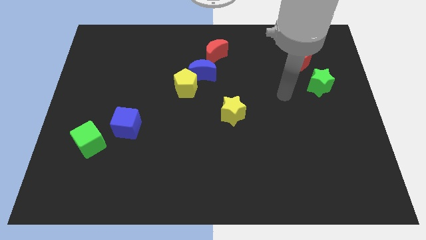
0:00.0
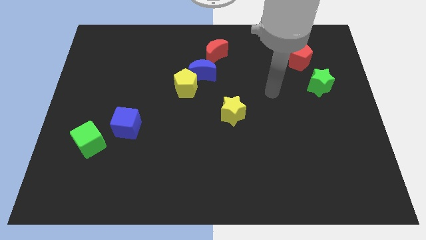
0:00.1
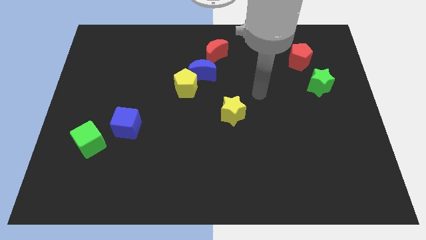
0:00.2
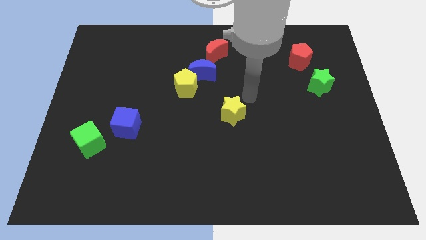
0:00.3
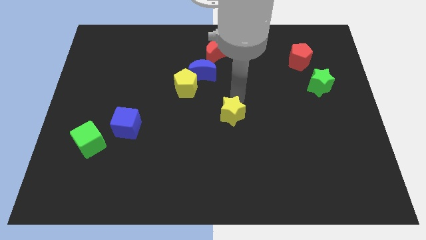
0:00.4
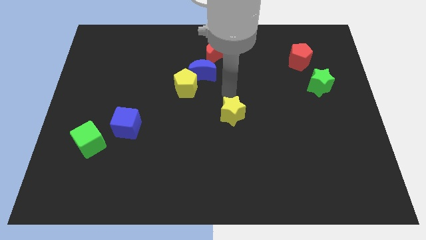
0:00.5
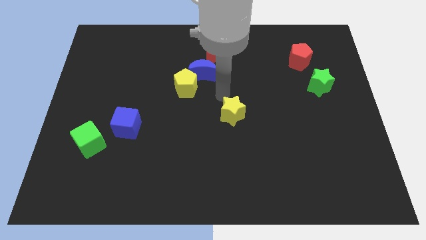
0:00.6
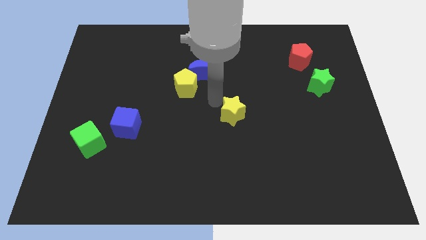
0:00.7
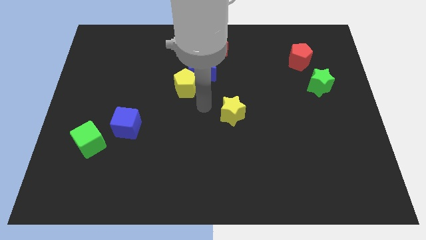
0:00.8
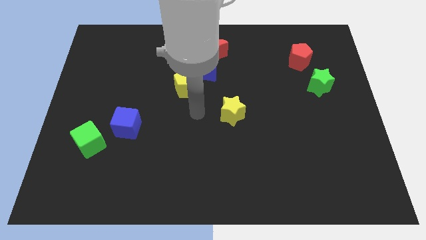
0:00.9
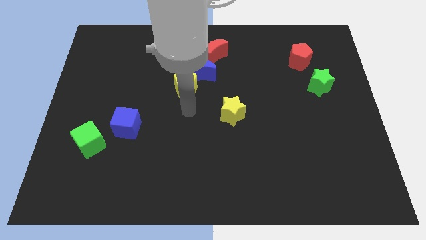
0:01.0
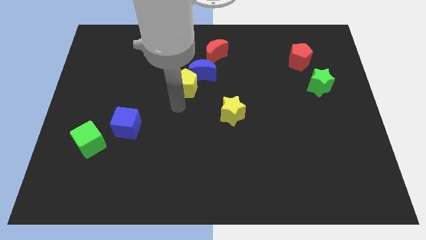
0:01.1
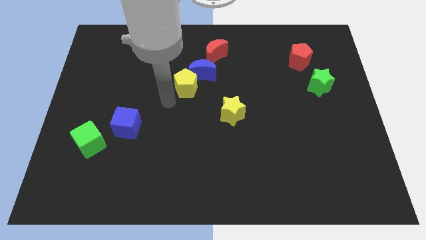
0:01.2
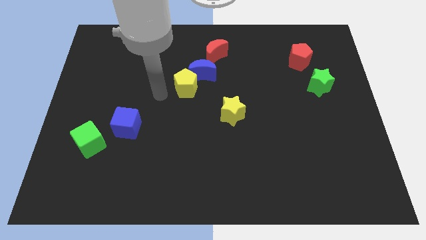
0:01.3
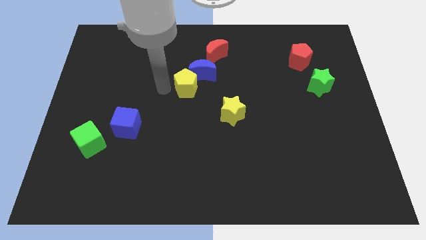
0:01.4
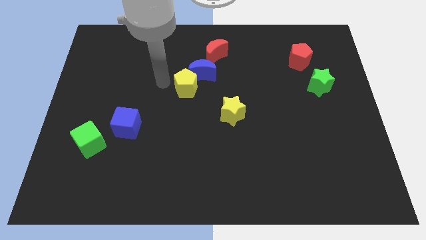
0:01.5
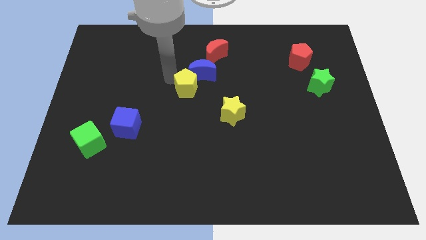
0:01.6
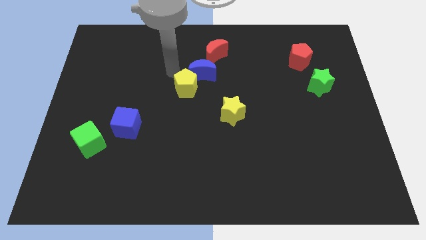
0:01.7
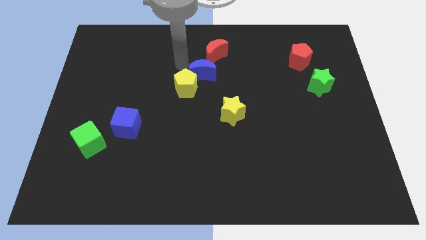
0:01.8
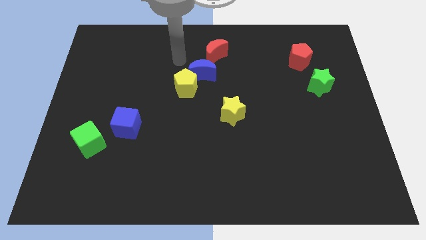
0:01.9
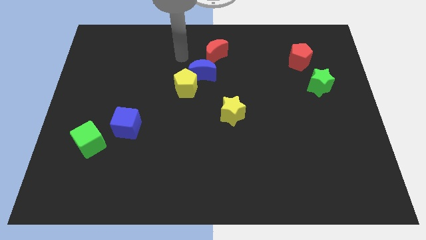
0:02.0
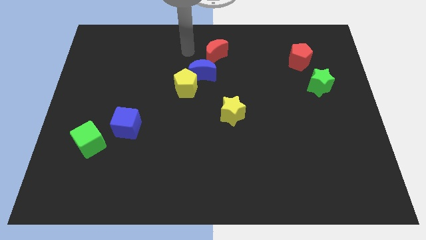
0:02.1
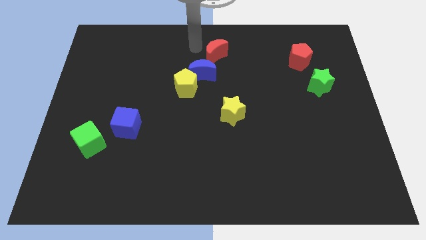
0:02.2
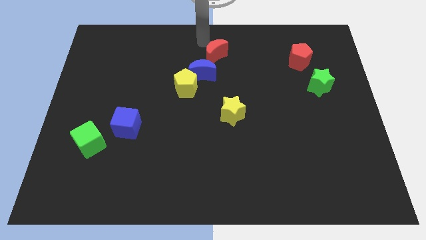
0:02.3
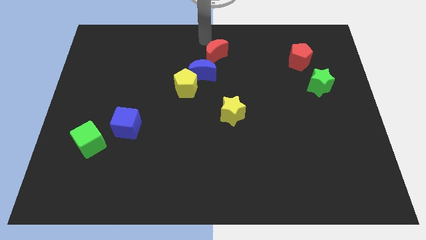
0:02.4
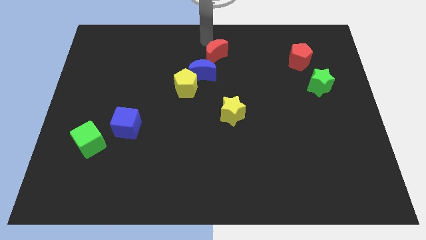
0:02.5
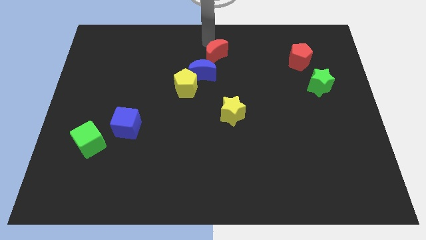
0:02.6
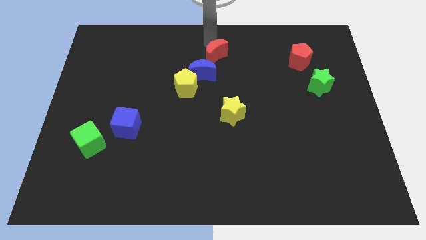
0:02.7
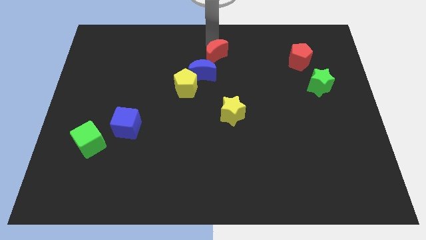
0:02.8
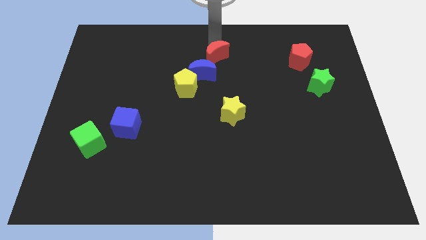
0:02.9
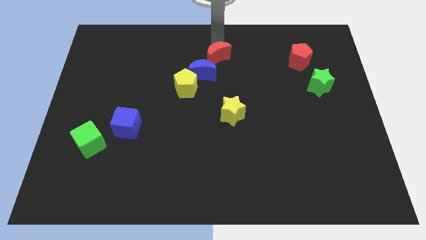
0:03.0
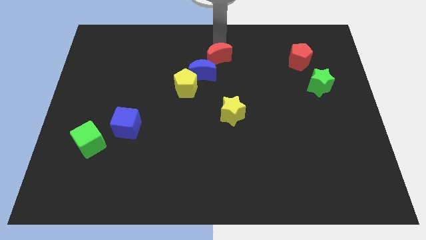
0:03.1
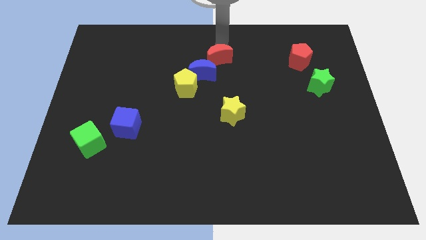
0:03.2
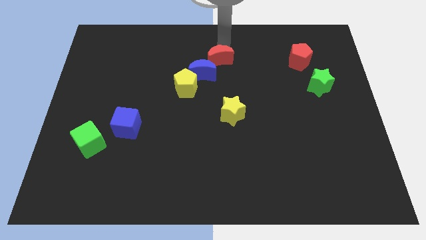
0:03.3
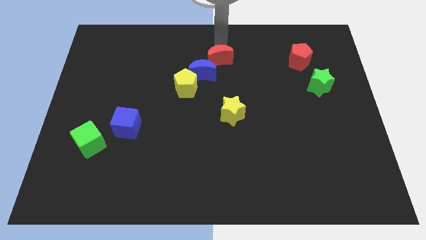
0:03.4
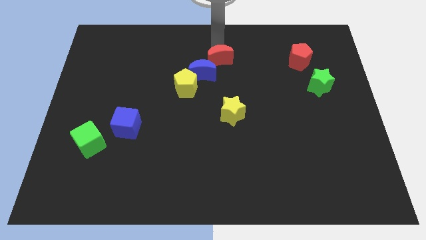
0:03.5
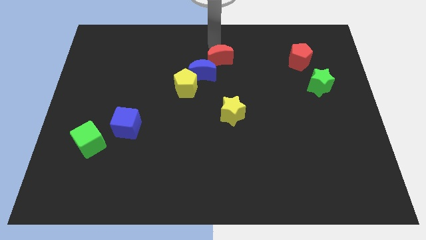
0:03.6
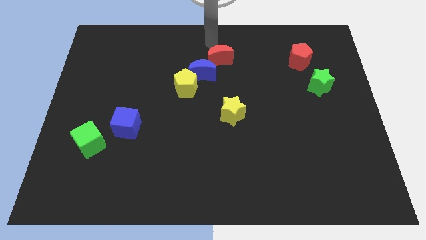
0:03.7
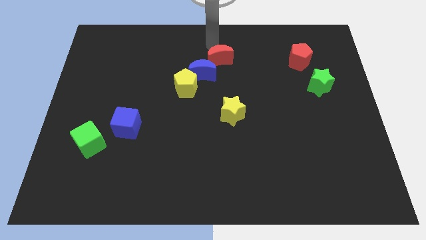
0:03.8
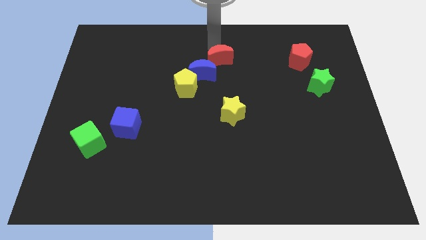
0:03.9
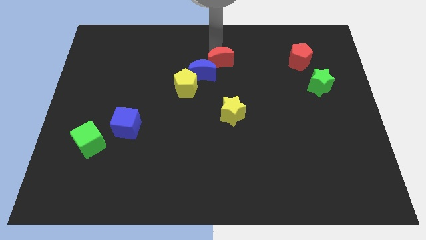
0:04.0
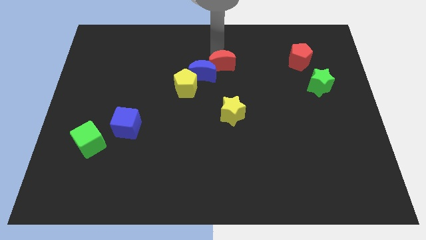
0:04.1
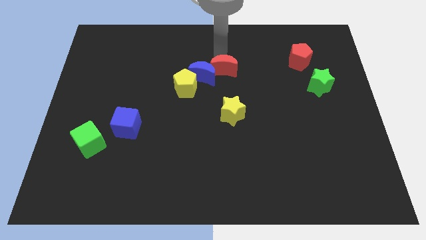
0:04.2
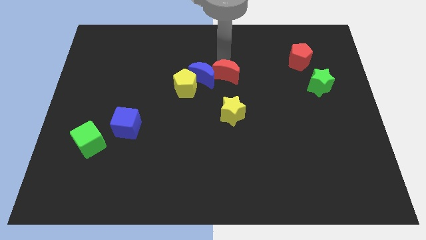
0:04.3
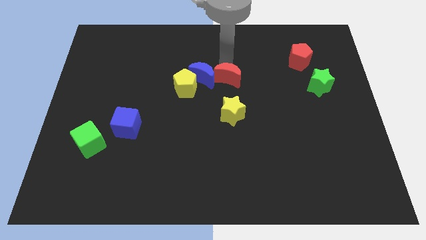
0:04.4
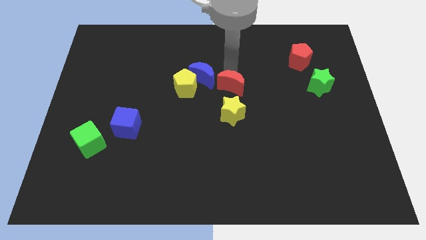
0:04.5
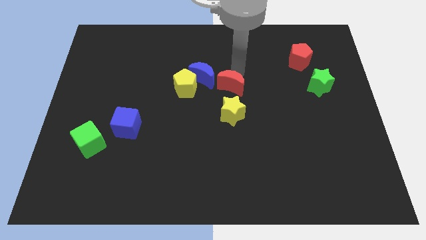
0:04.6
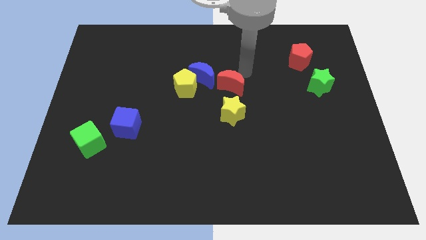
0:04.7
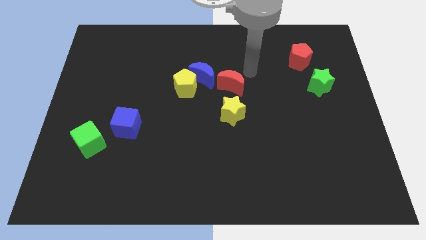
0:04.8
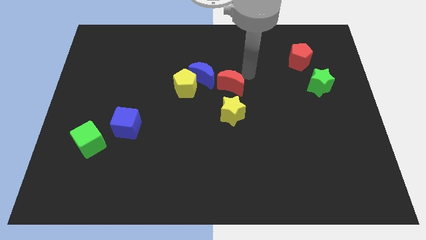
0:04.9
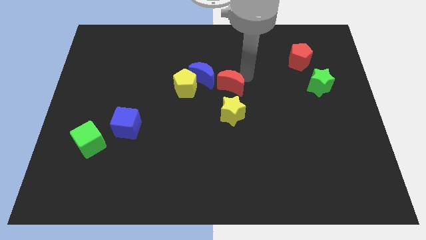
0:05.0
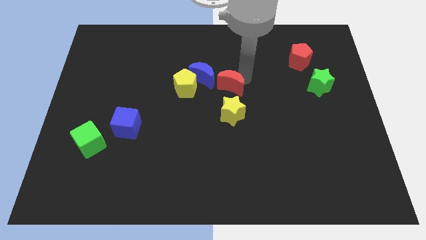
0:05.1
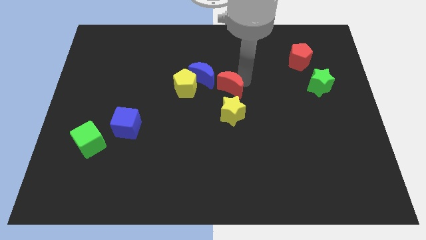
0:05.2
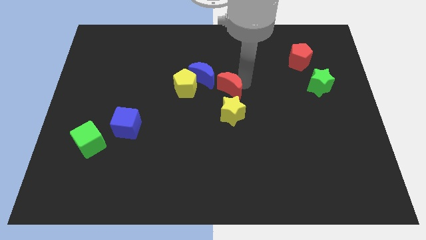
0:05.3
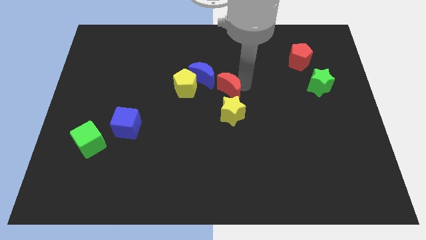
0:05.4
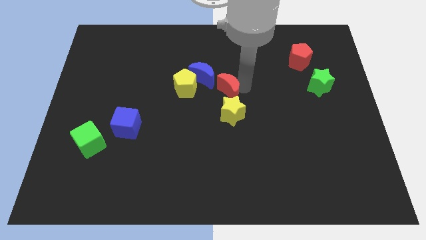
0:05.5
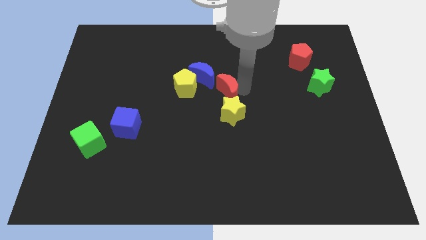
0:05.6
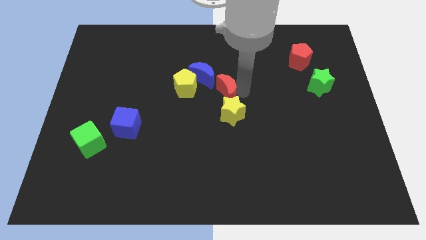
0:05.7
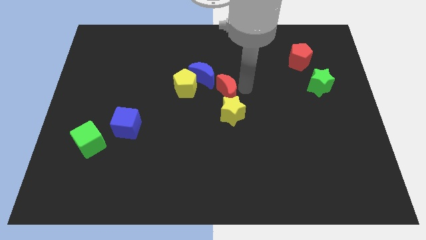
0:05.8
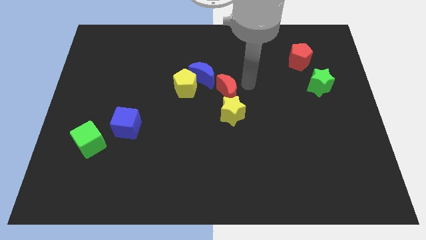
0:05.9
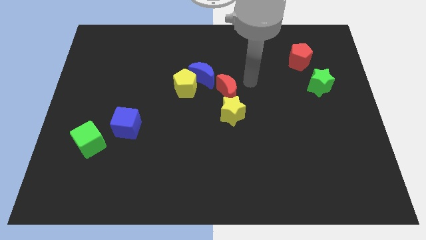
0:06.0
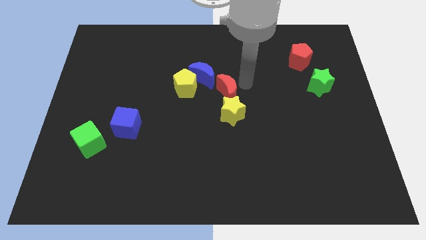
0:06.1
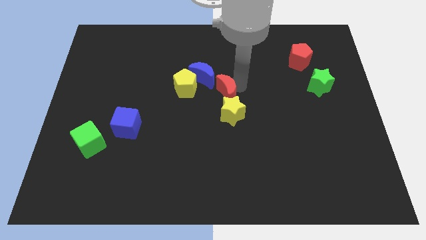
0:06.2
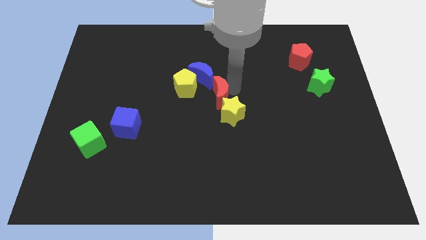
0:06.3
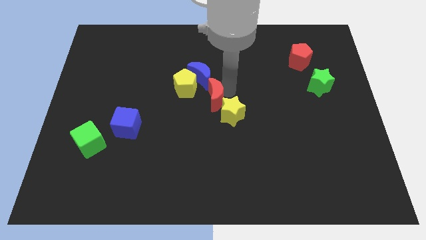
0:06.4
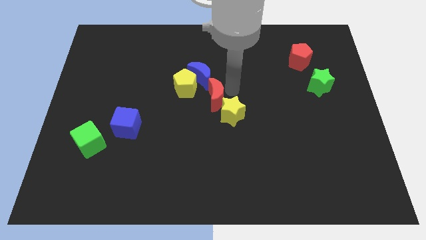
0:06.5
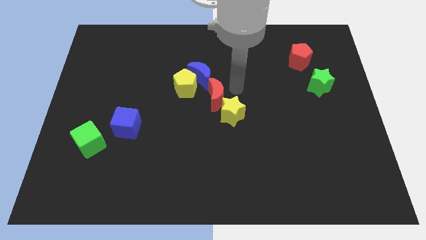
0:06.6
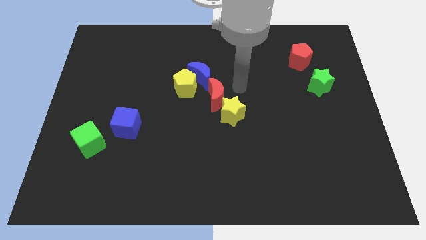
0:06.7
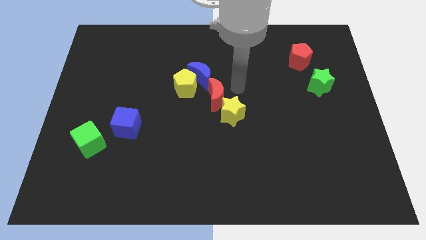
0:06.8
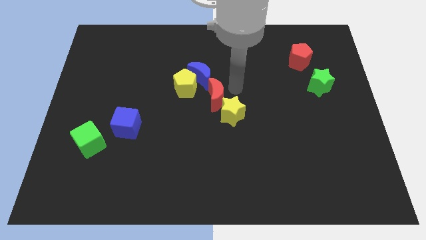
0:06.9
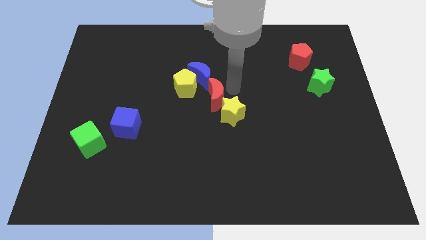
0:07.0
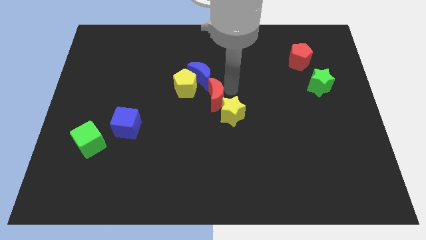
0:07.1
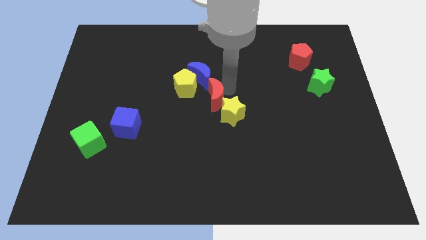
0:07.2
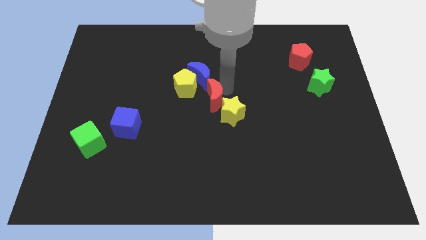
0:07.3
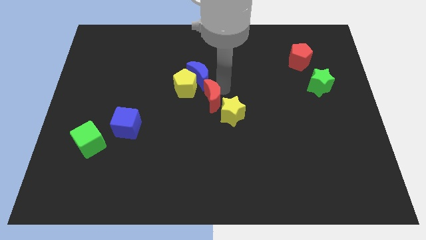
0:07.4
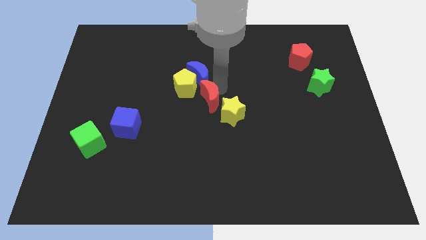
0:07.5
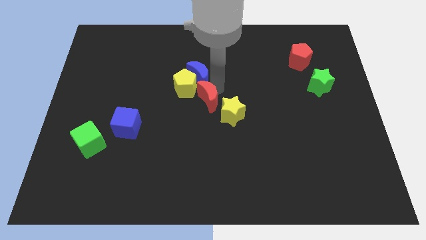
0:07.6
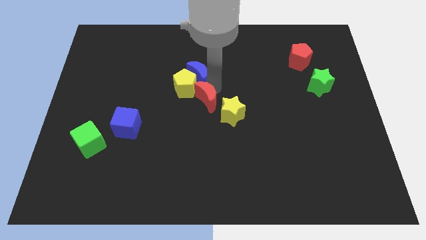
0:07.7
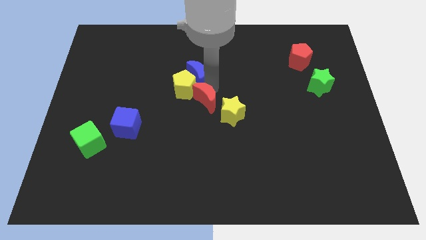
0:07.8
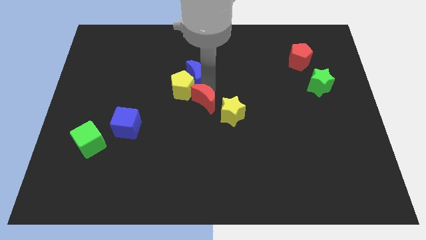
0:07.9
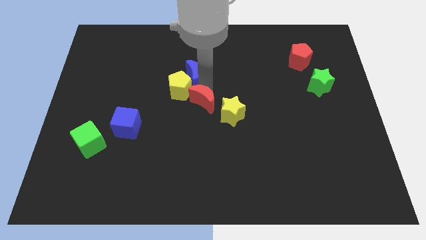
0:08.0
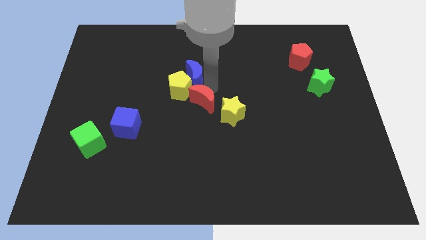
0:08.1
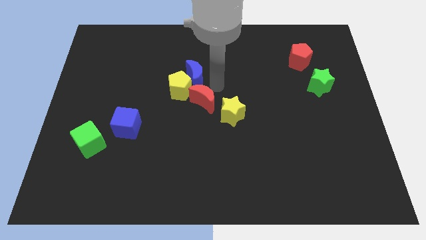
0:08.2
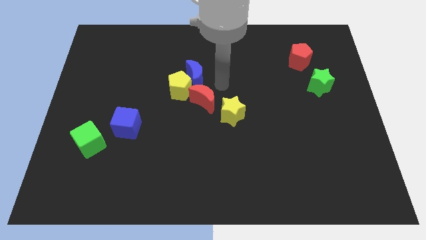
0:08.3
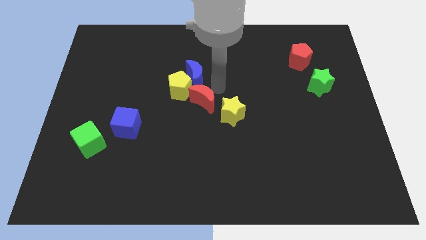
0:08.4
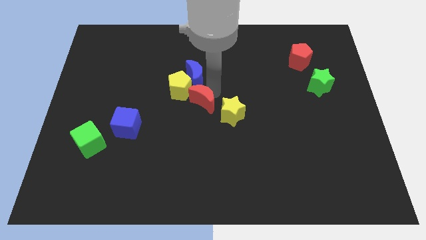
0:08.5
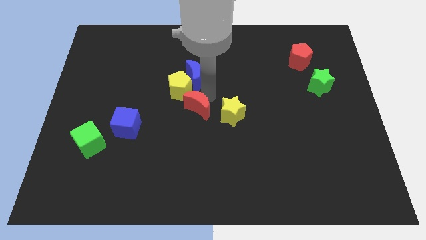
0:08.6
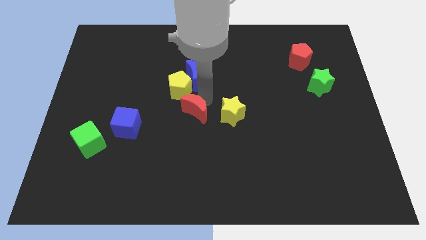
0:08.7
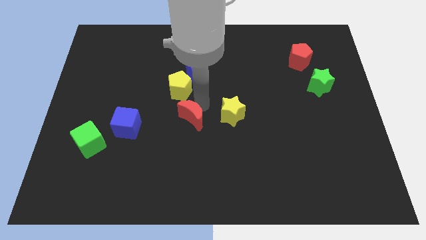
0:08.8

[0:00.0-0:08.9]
put the red moon right of the blue cube
